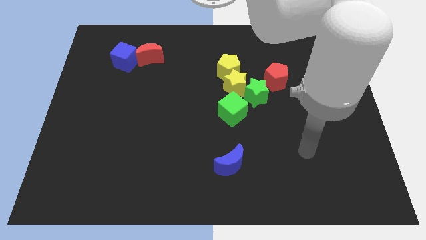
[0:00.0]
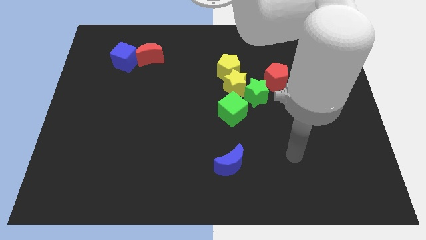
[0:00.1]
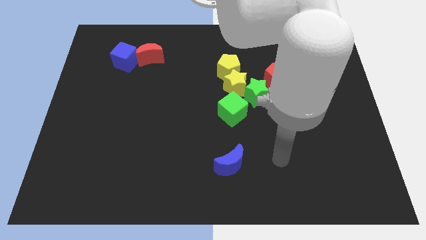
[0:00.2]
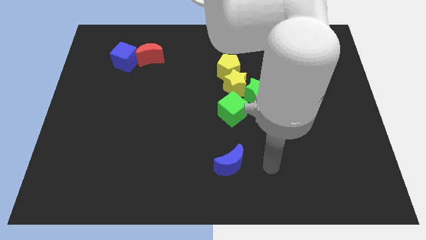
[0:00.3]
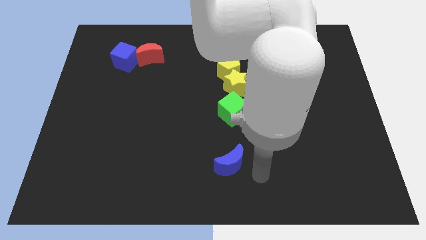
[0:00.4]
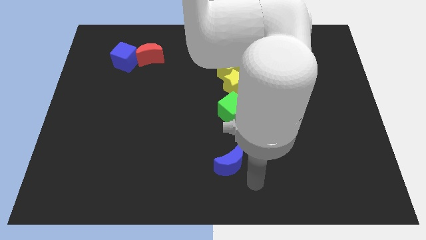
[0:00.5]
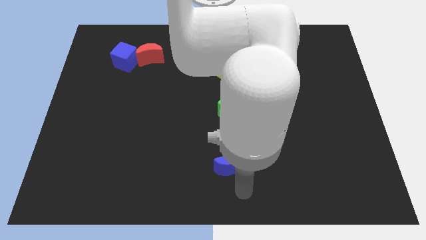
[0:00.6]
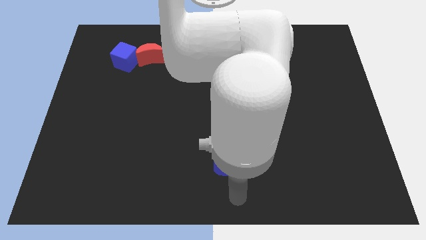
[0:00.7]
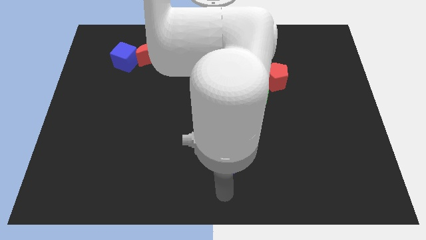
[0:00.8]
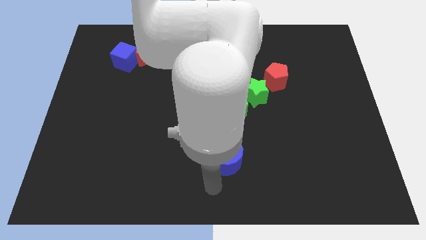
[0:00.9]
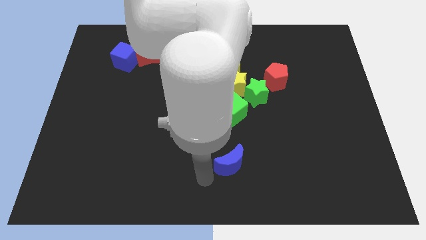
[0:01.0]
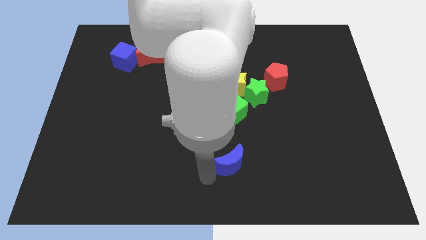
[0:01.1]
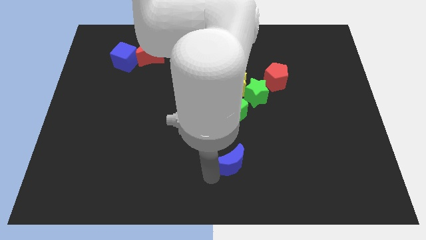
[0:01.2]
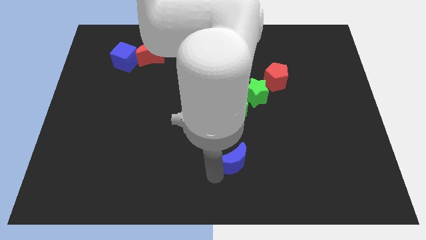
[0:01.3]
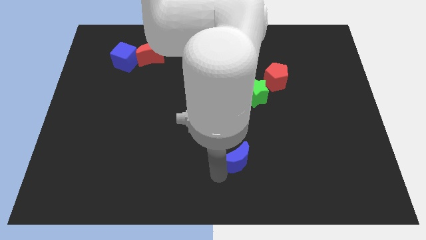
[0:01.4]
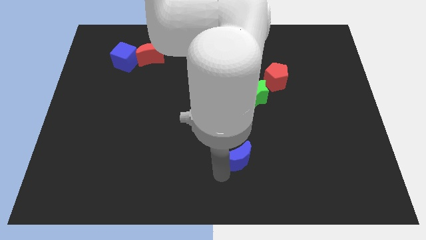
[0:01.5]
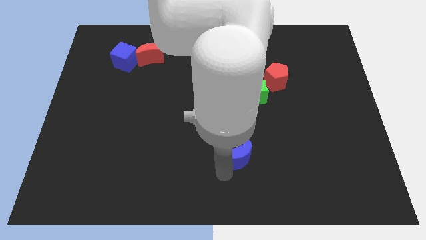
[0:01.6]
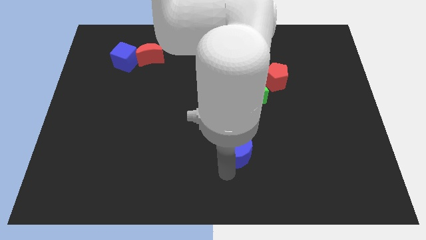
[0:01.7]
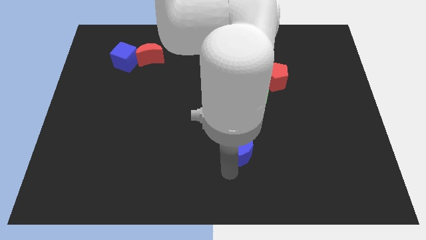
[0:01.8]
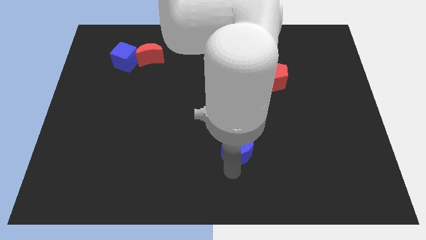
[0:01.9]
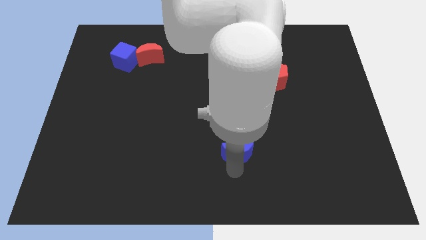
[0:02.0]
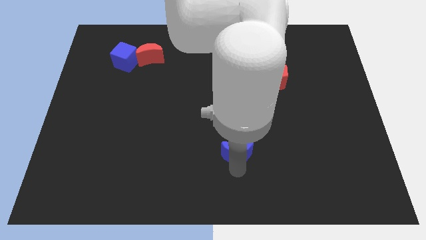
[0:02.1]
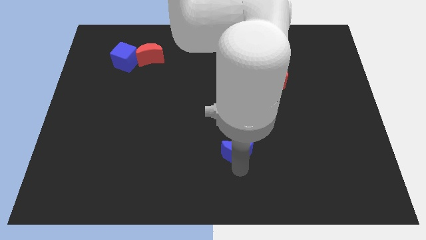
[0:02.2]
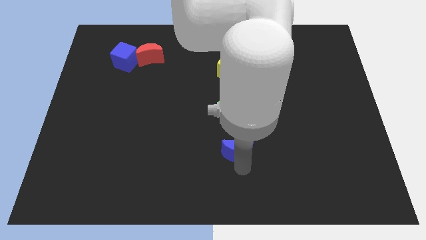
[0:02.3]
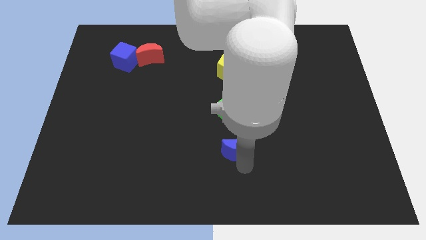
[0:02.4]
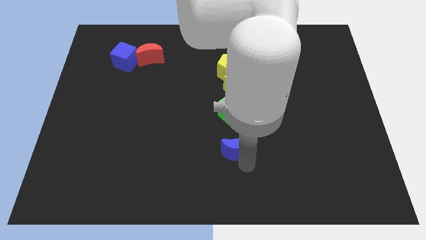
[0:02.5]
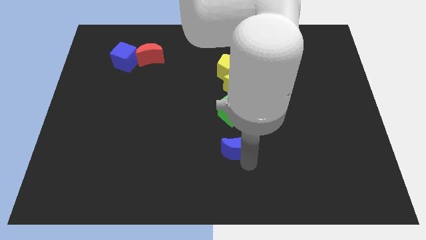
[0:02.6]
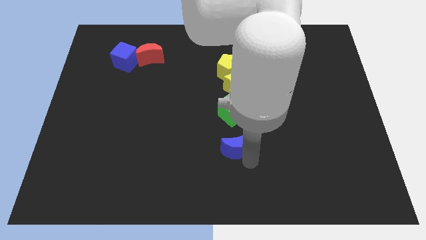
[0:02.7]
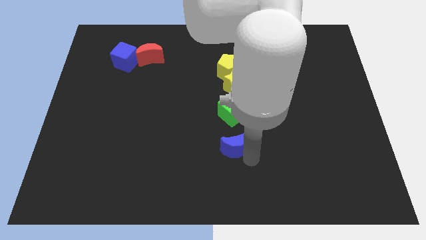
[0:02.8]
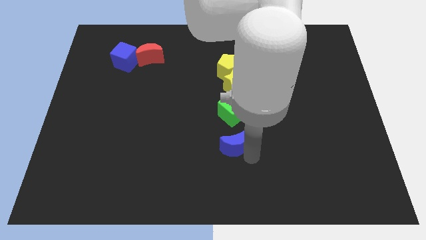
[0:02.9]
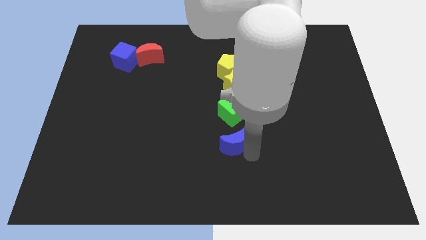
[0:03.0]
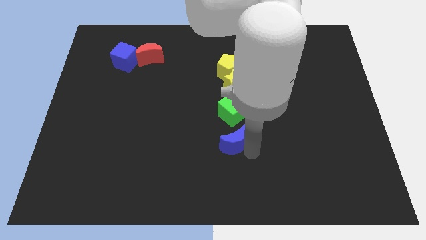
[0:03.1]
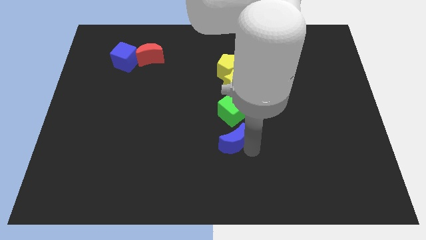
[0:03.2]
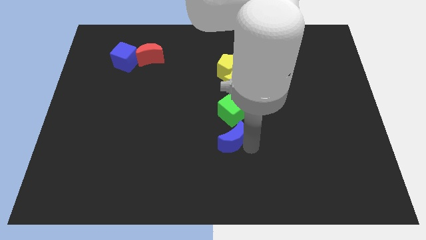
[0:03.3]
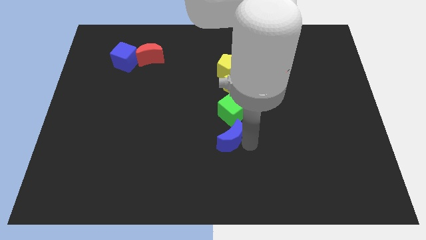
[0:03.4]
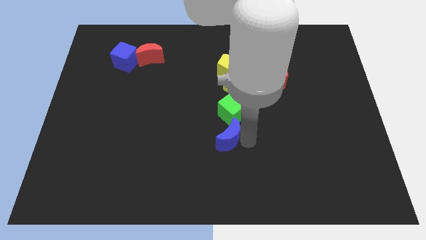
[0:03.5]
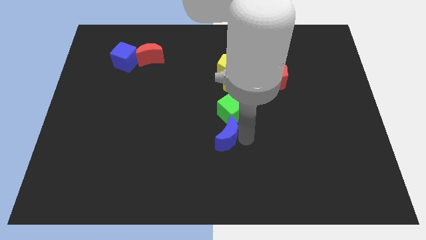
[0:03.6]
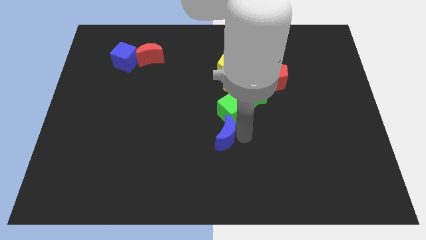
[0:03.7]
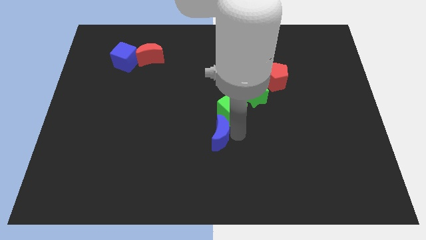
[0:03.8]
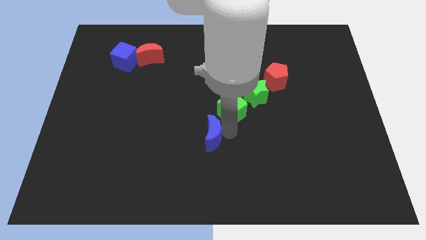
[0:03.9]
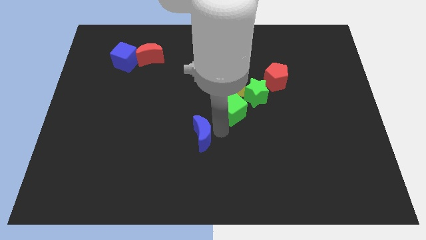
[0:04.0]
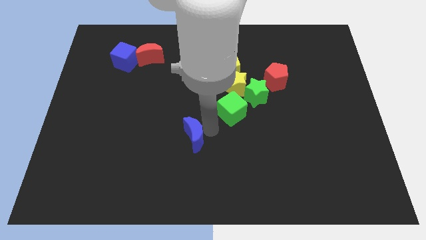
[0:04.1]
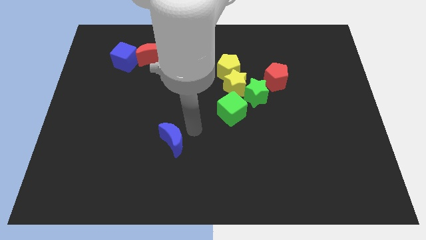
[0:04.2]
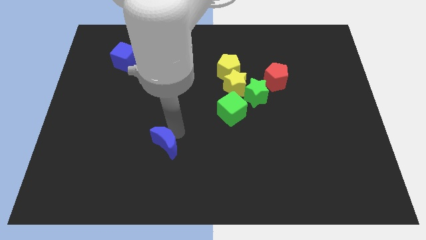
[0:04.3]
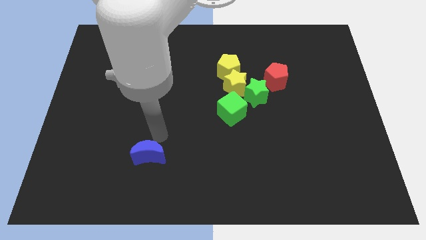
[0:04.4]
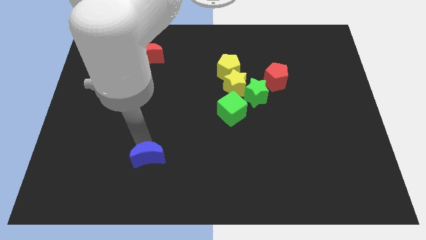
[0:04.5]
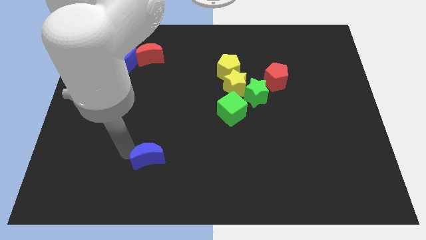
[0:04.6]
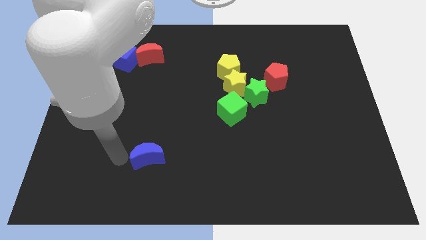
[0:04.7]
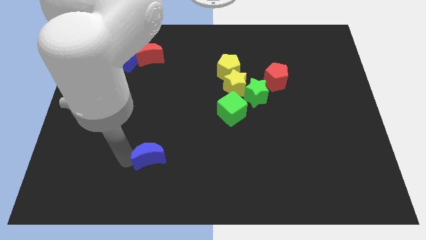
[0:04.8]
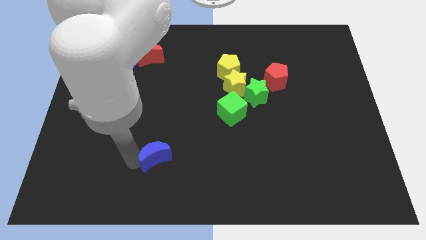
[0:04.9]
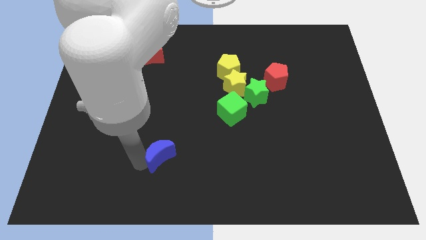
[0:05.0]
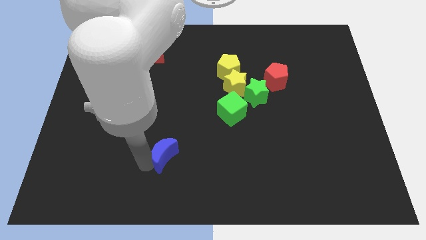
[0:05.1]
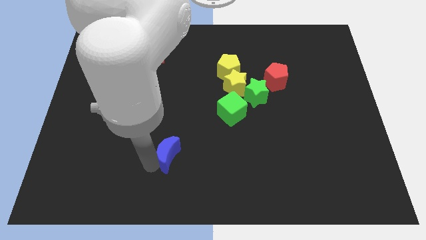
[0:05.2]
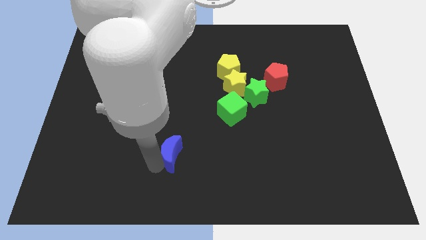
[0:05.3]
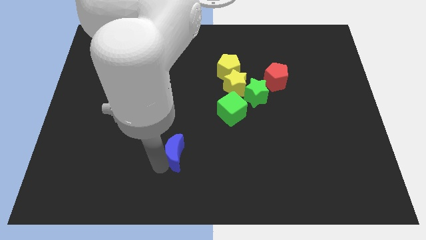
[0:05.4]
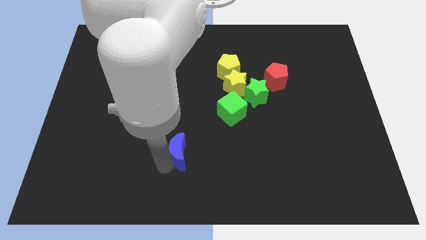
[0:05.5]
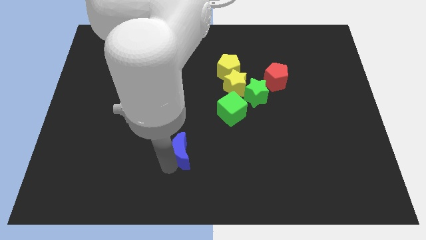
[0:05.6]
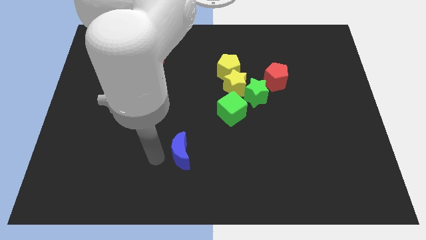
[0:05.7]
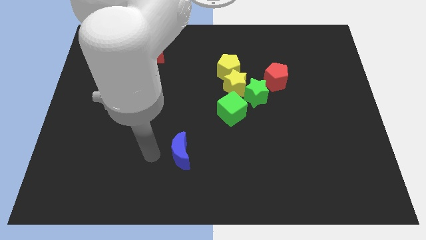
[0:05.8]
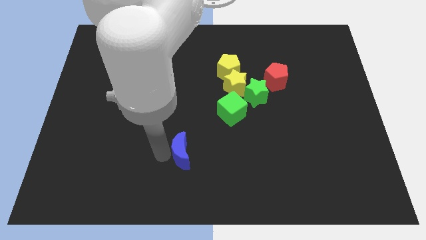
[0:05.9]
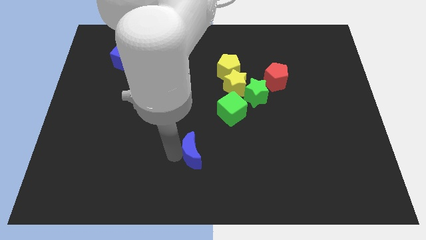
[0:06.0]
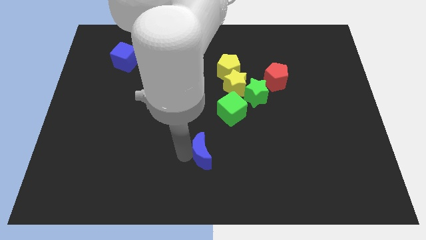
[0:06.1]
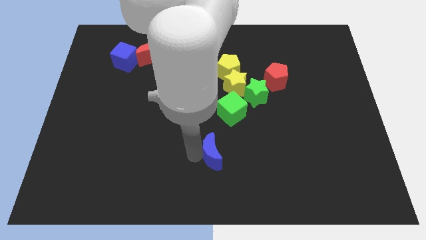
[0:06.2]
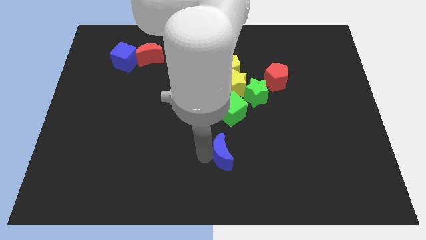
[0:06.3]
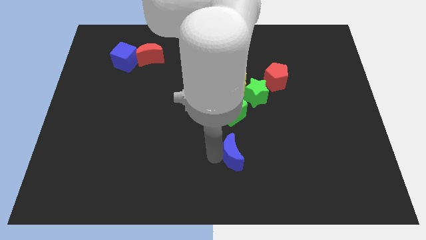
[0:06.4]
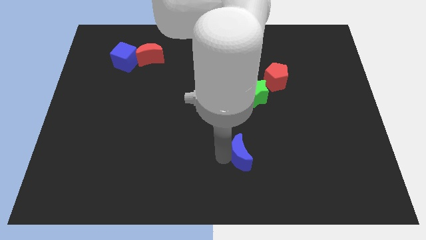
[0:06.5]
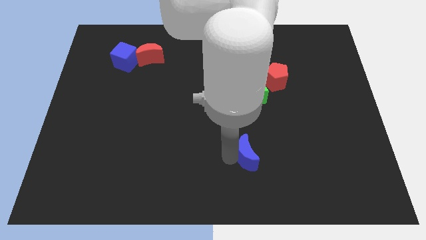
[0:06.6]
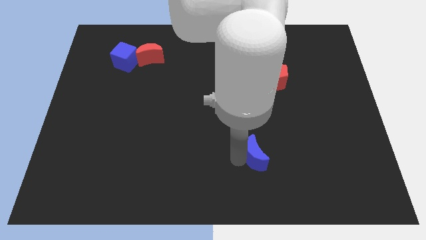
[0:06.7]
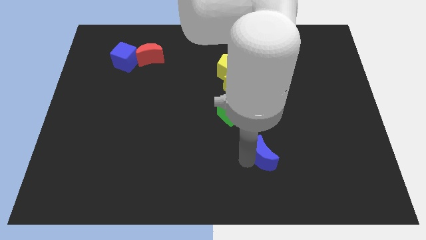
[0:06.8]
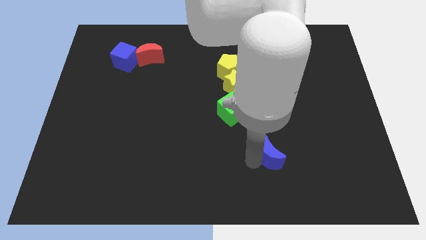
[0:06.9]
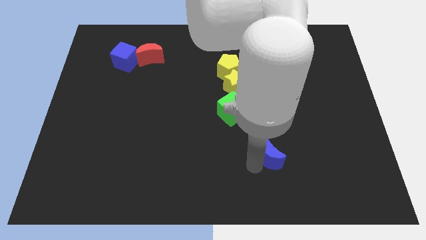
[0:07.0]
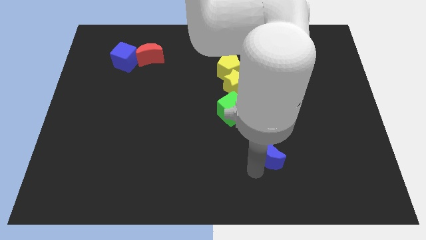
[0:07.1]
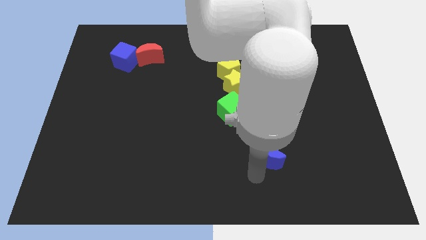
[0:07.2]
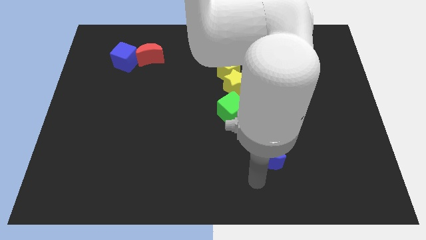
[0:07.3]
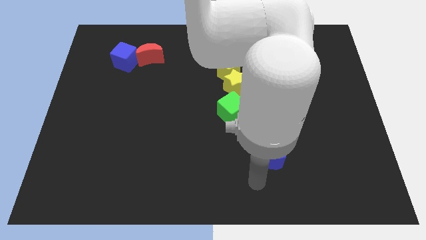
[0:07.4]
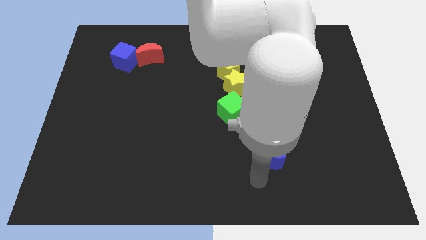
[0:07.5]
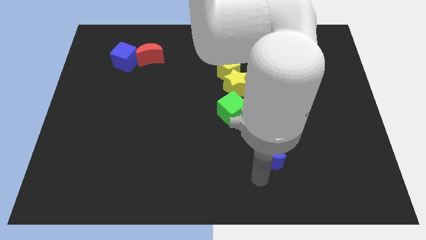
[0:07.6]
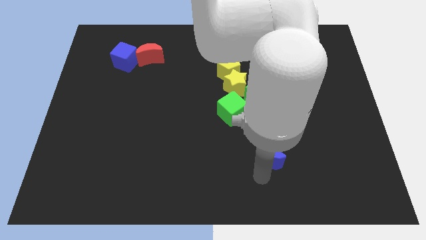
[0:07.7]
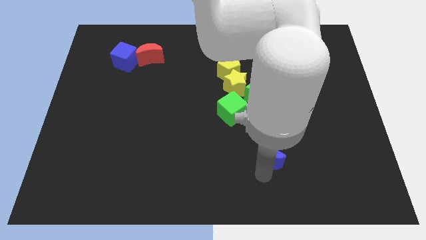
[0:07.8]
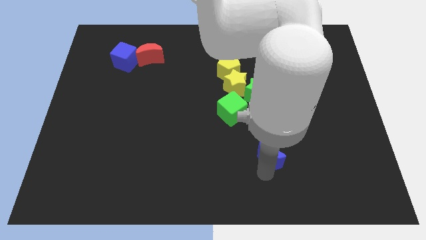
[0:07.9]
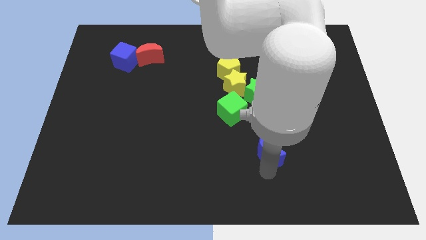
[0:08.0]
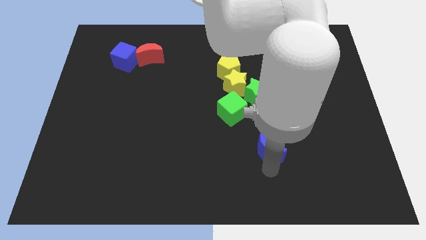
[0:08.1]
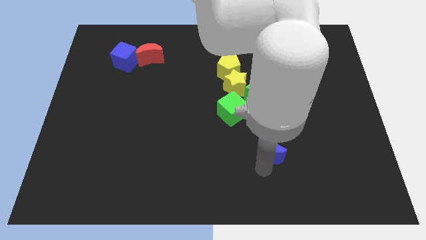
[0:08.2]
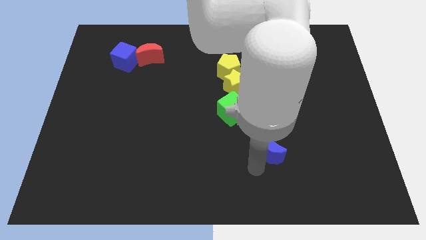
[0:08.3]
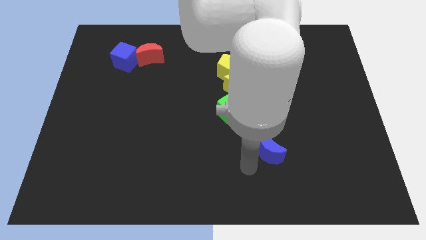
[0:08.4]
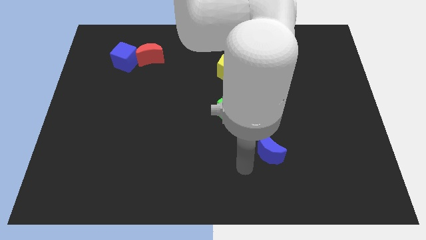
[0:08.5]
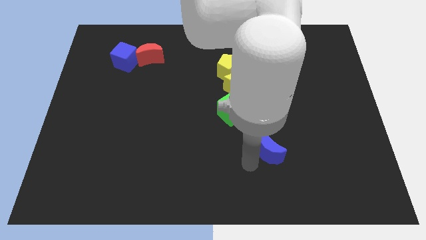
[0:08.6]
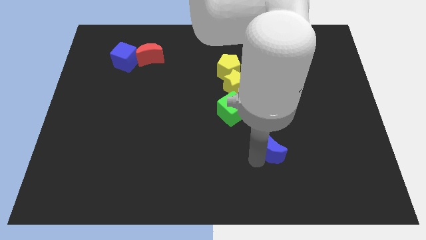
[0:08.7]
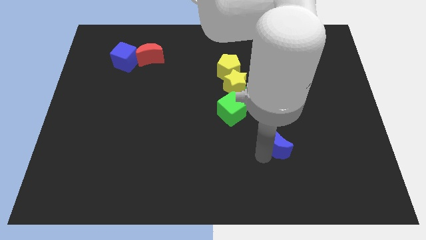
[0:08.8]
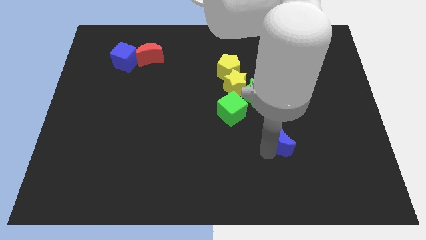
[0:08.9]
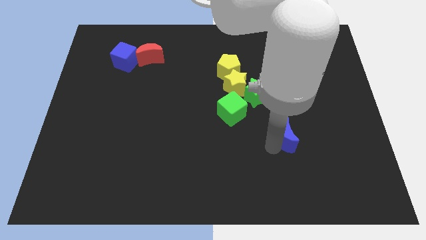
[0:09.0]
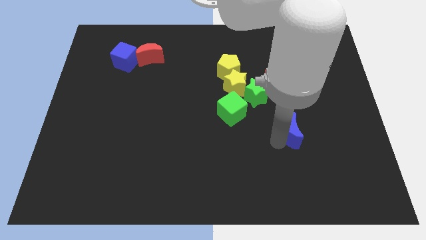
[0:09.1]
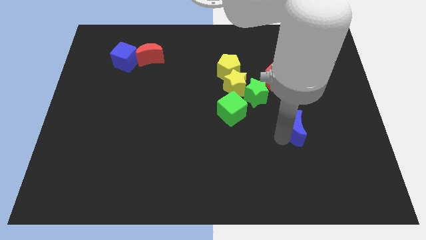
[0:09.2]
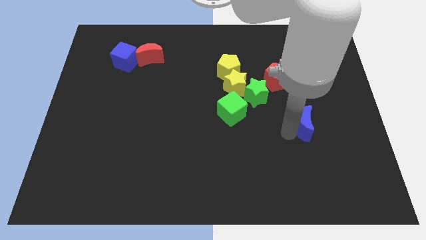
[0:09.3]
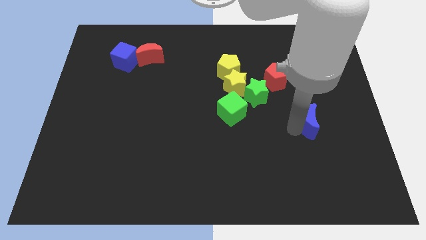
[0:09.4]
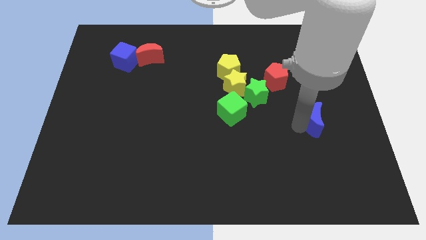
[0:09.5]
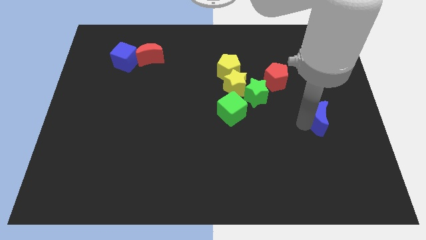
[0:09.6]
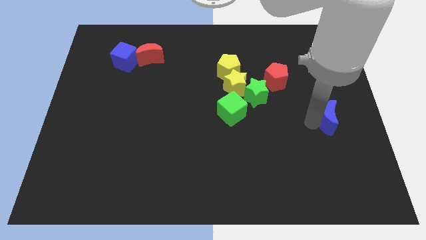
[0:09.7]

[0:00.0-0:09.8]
slide the blue moon to the right side
